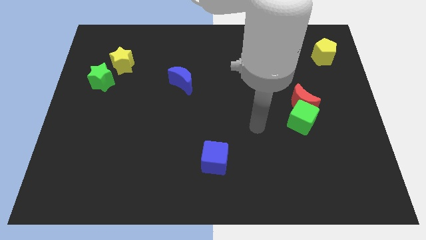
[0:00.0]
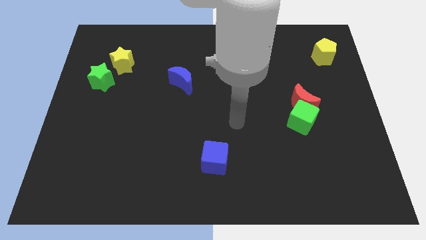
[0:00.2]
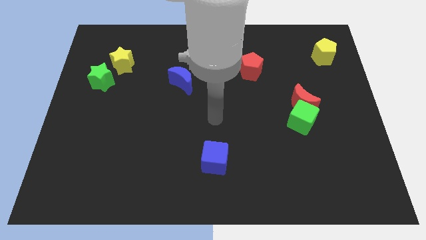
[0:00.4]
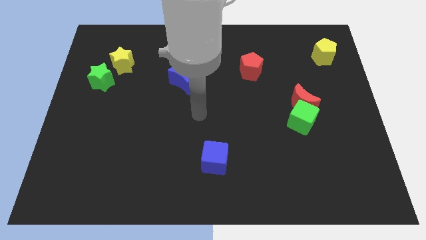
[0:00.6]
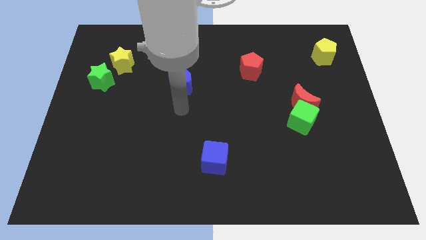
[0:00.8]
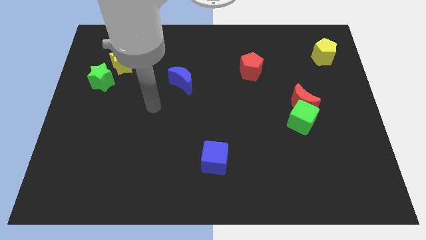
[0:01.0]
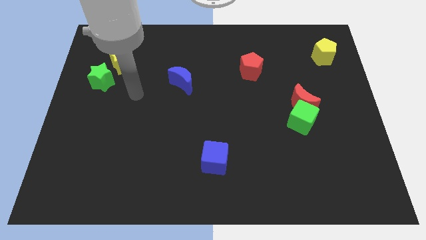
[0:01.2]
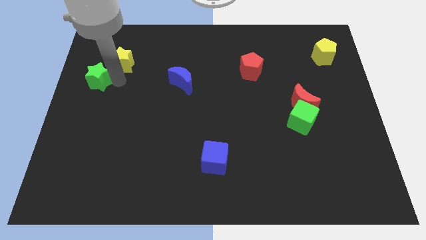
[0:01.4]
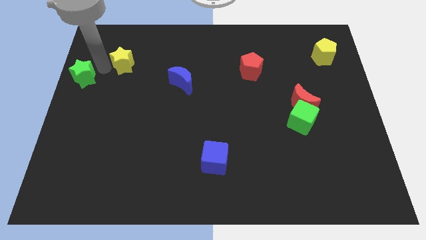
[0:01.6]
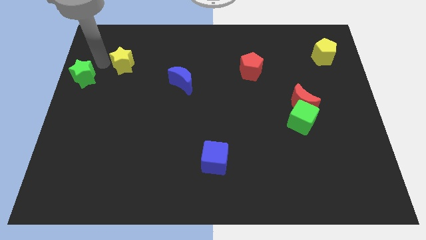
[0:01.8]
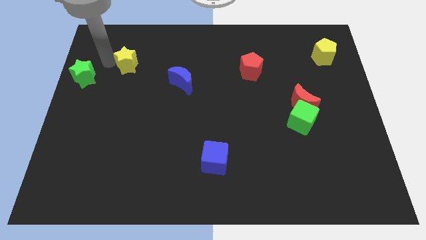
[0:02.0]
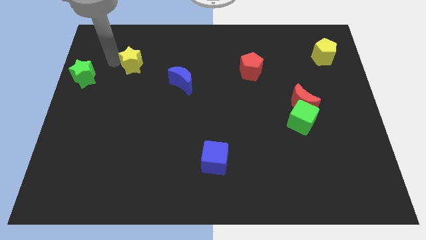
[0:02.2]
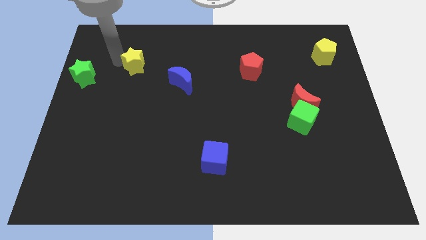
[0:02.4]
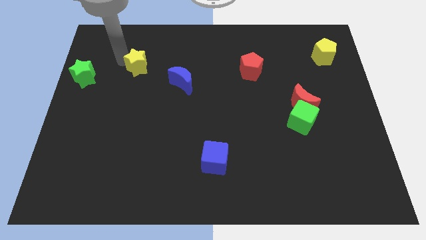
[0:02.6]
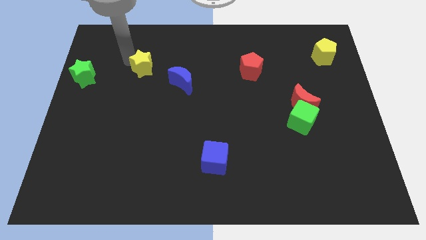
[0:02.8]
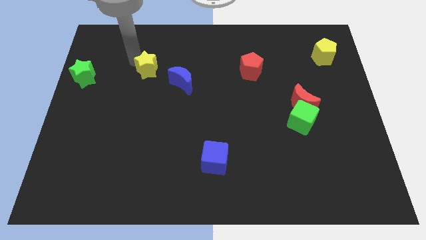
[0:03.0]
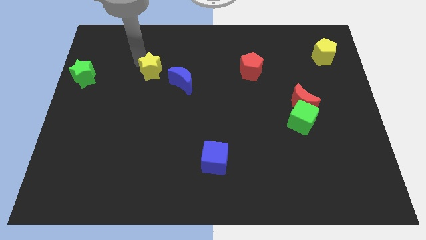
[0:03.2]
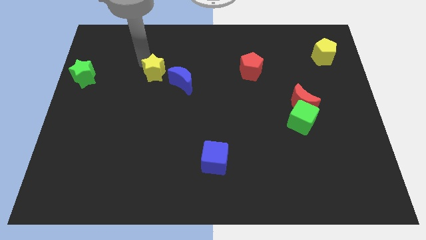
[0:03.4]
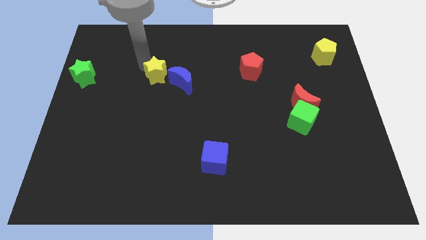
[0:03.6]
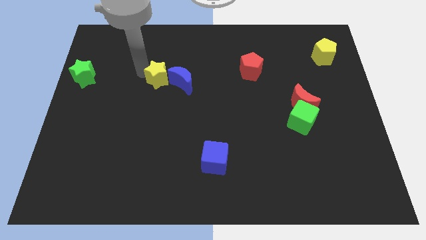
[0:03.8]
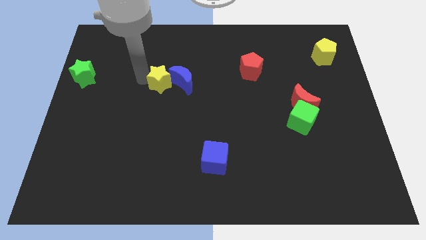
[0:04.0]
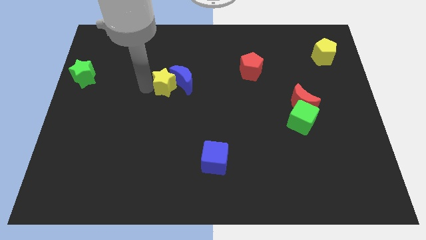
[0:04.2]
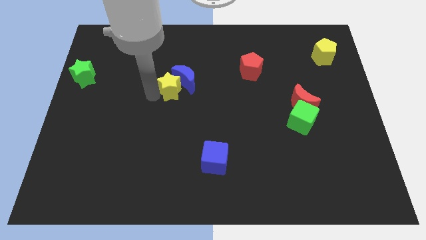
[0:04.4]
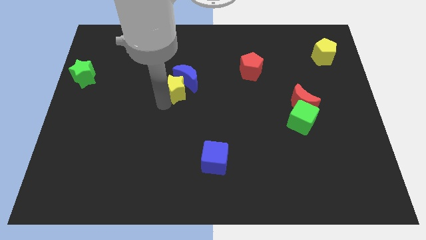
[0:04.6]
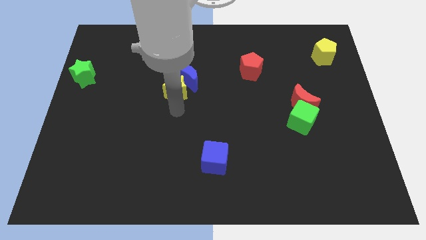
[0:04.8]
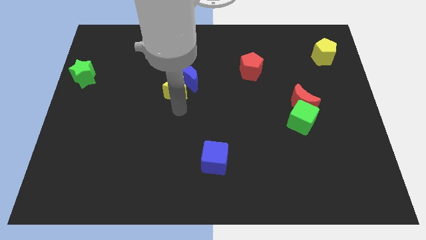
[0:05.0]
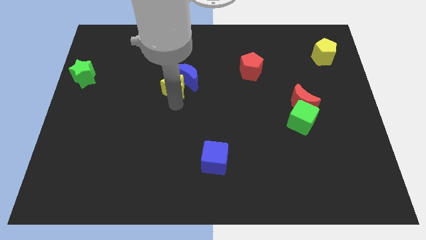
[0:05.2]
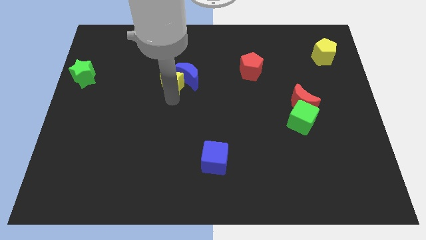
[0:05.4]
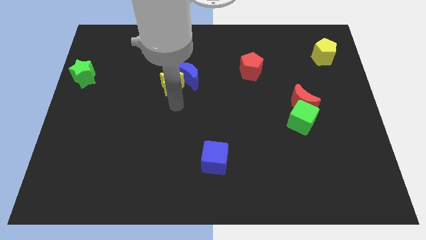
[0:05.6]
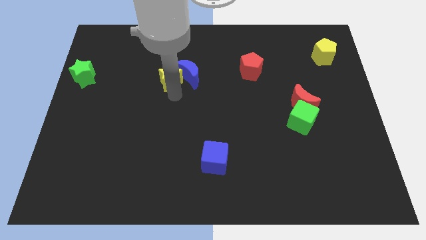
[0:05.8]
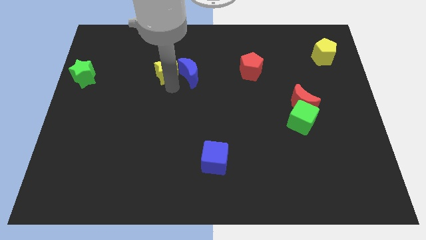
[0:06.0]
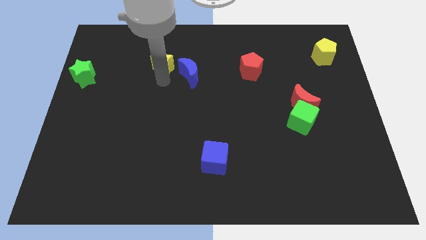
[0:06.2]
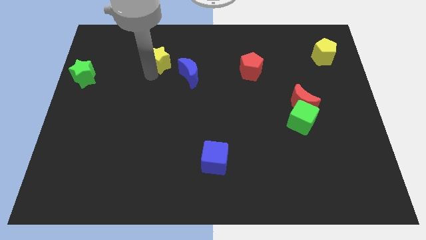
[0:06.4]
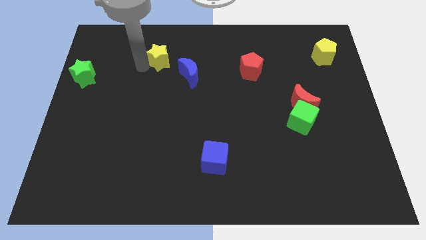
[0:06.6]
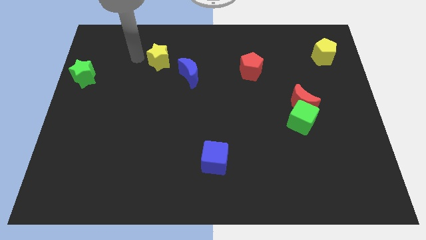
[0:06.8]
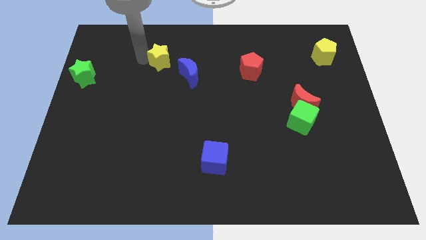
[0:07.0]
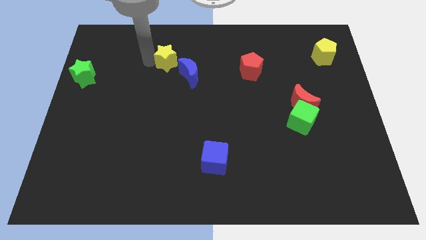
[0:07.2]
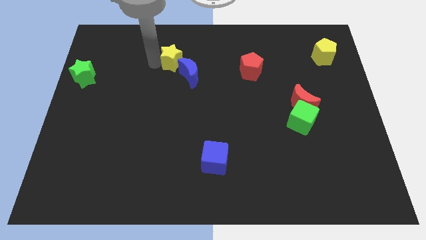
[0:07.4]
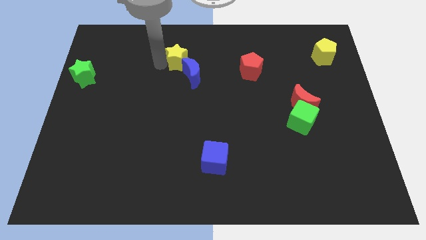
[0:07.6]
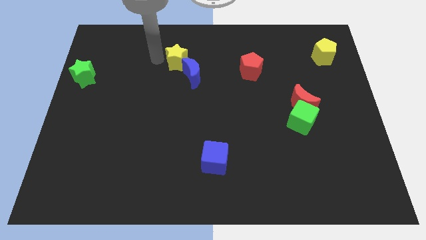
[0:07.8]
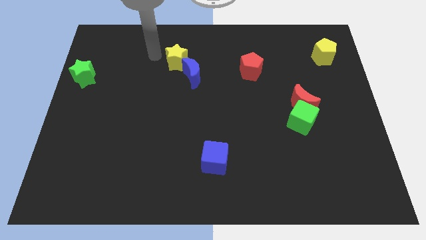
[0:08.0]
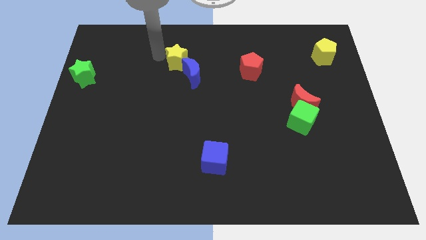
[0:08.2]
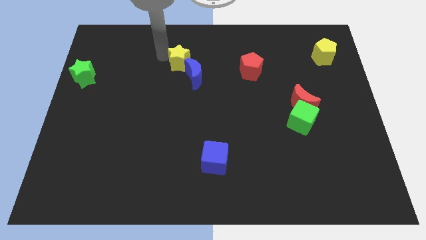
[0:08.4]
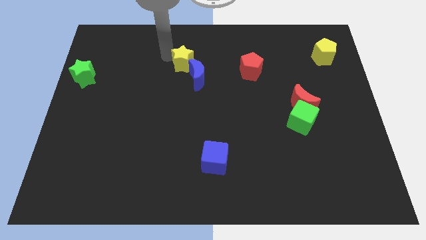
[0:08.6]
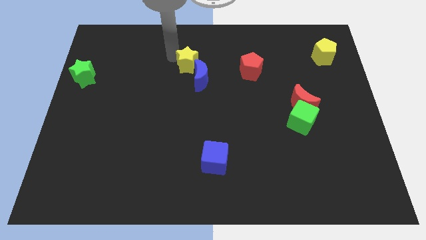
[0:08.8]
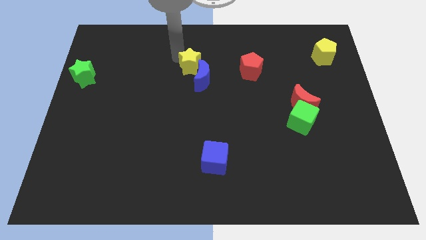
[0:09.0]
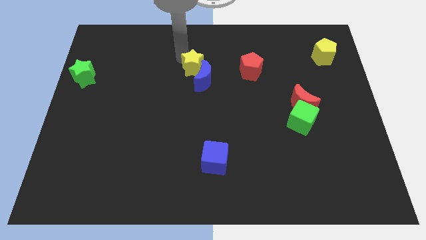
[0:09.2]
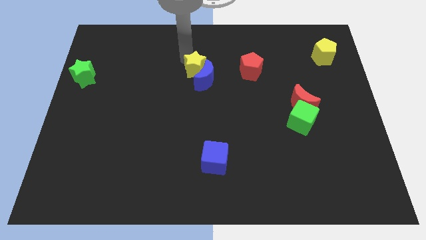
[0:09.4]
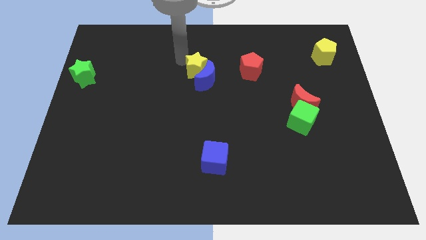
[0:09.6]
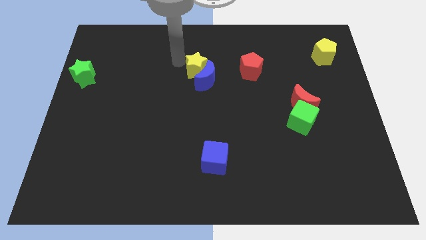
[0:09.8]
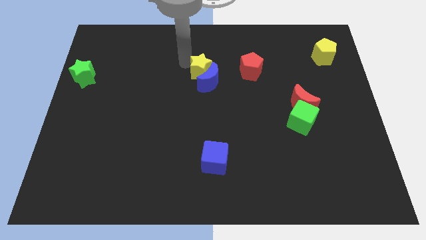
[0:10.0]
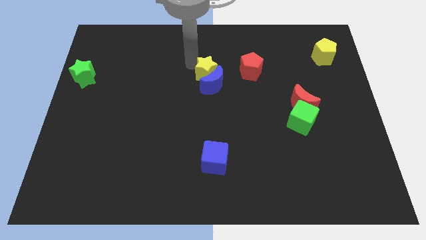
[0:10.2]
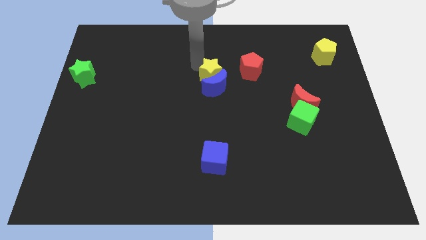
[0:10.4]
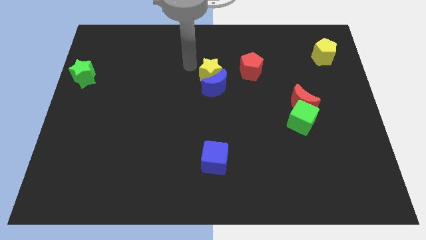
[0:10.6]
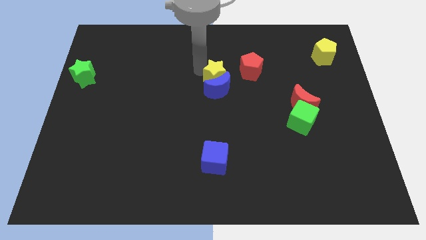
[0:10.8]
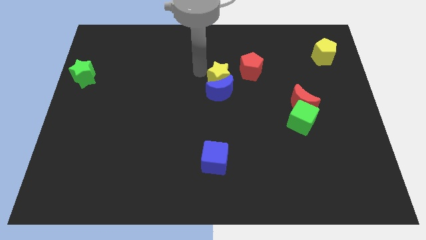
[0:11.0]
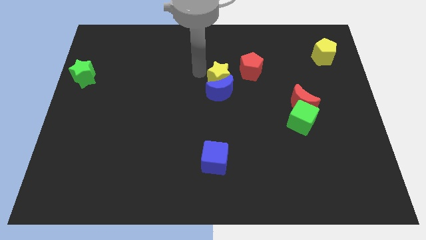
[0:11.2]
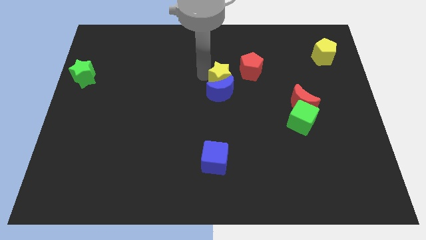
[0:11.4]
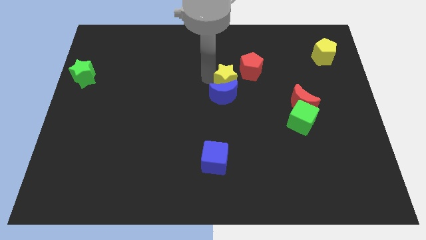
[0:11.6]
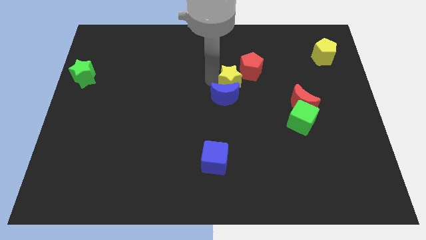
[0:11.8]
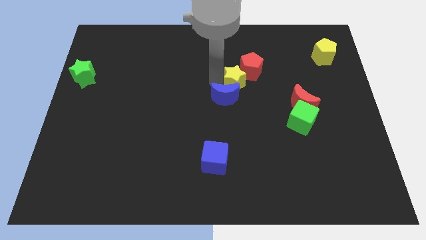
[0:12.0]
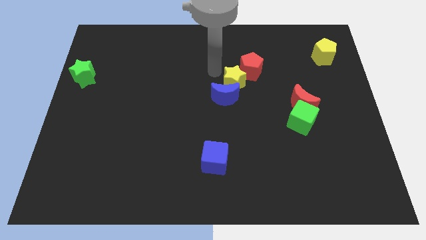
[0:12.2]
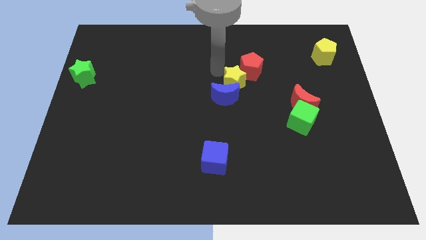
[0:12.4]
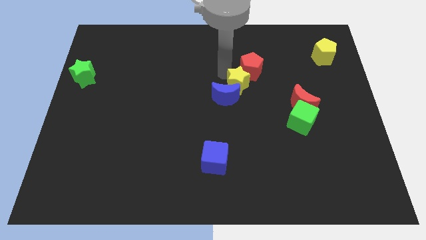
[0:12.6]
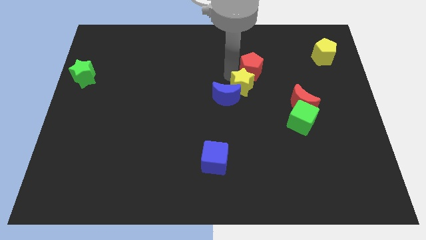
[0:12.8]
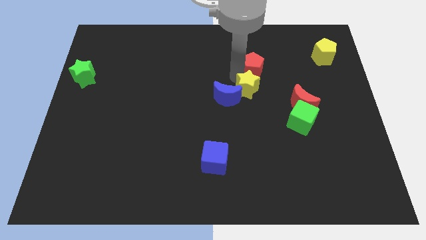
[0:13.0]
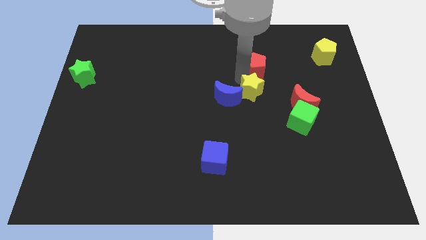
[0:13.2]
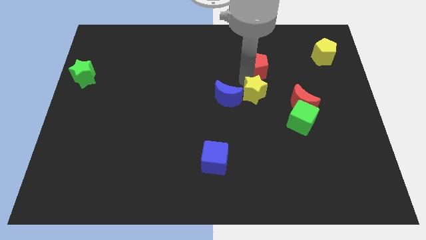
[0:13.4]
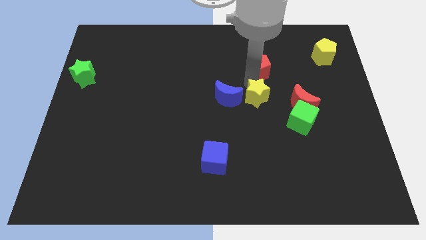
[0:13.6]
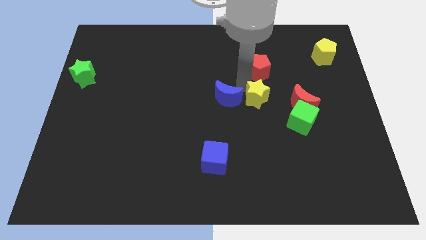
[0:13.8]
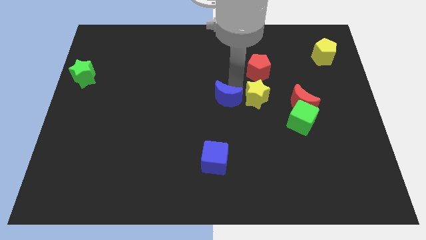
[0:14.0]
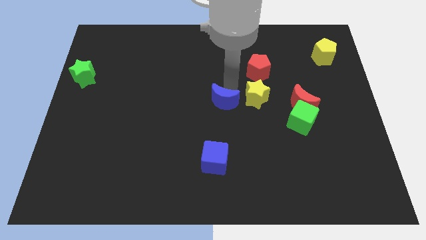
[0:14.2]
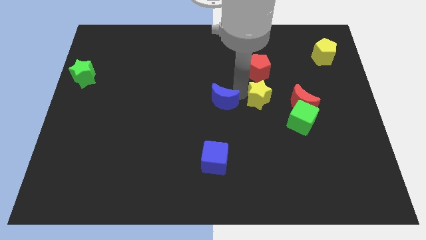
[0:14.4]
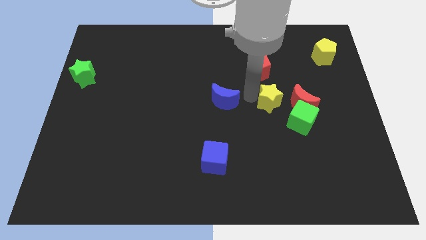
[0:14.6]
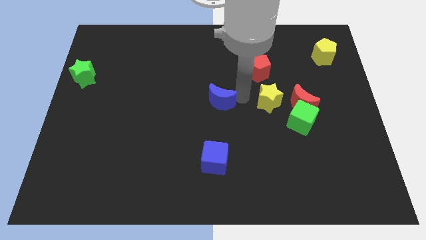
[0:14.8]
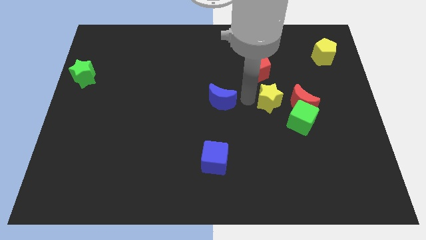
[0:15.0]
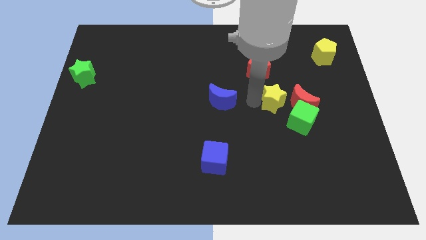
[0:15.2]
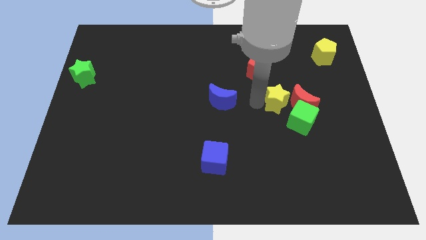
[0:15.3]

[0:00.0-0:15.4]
move the yellow star next to the red moon
